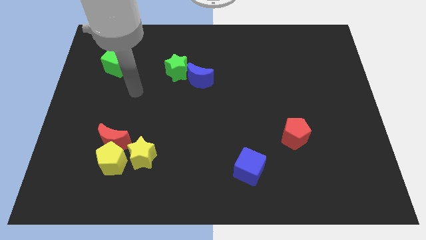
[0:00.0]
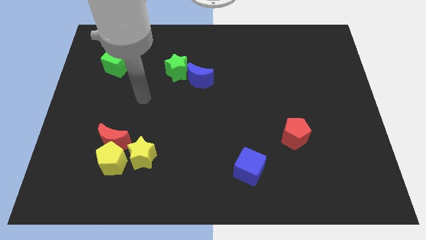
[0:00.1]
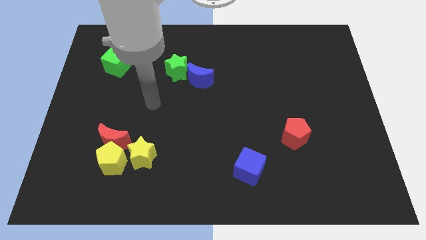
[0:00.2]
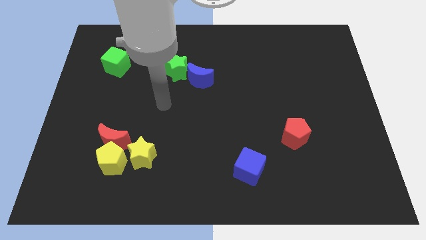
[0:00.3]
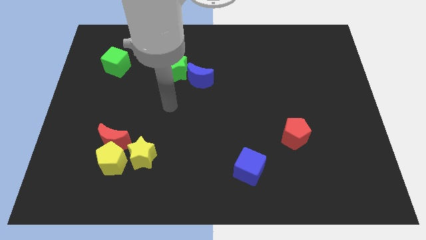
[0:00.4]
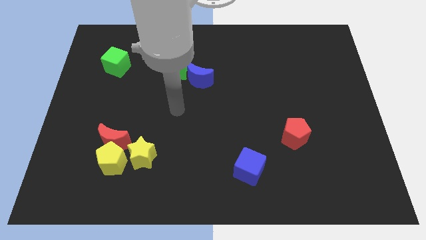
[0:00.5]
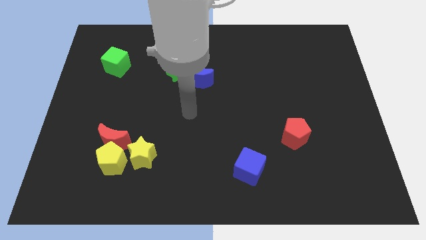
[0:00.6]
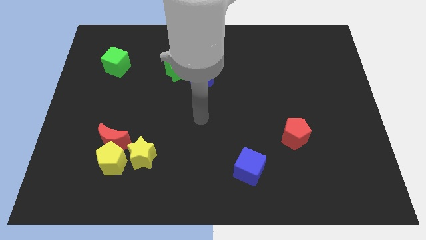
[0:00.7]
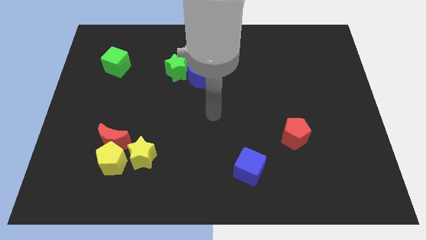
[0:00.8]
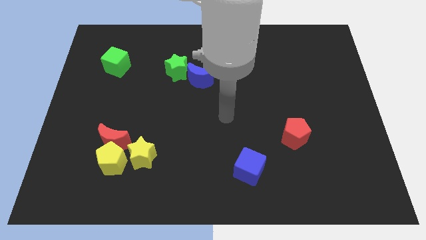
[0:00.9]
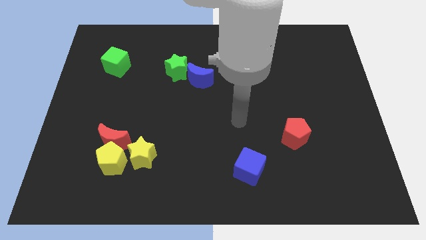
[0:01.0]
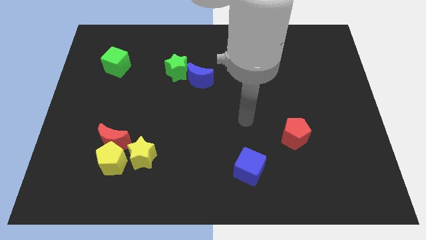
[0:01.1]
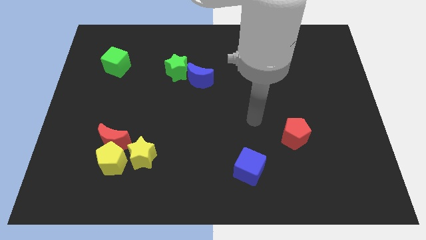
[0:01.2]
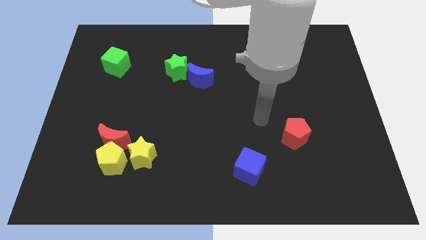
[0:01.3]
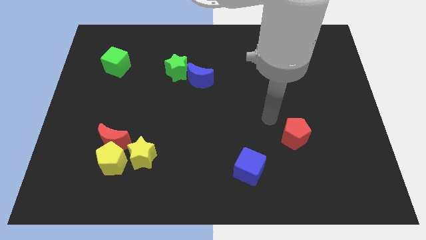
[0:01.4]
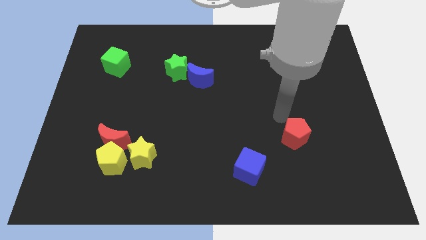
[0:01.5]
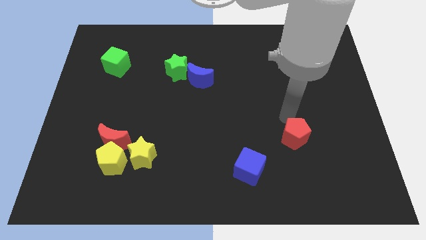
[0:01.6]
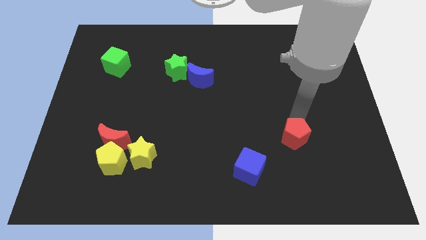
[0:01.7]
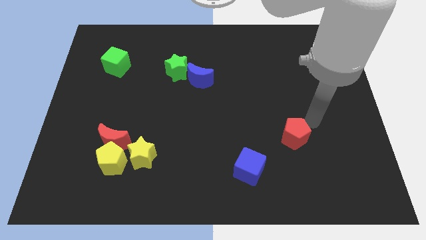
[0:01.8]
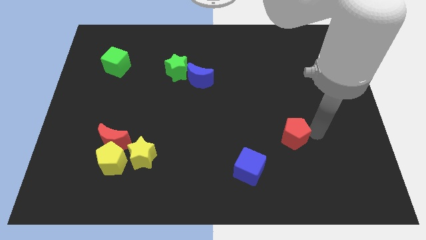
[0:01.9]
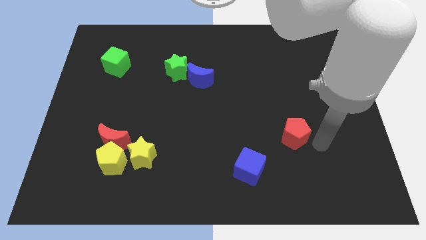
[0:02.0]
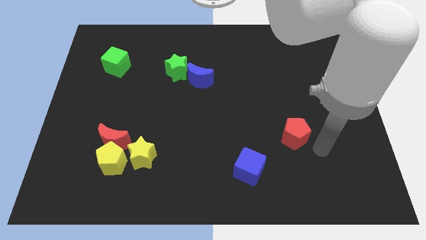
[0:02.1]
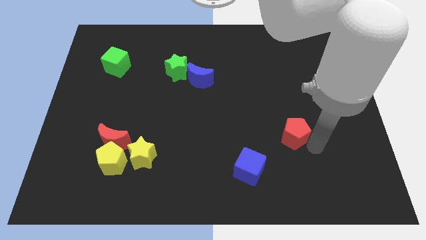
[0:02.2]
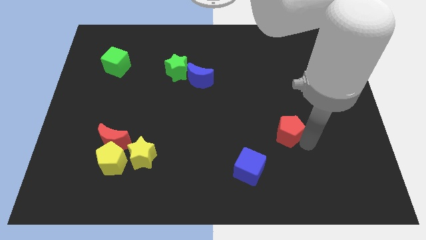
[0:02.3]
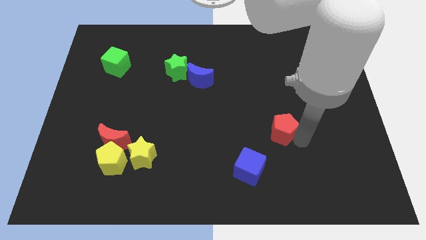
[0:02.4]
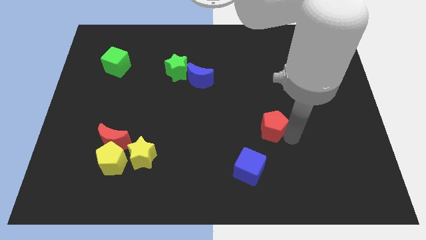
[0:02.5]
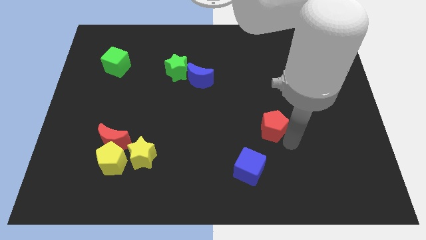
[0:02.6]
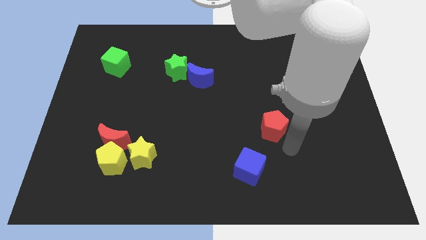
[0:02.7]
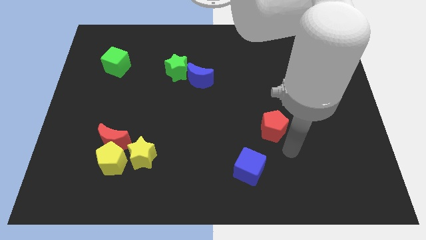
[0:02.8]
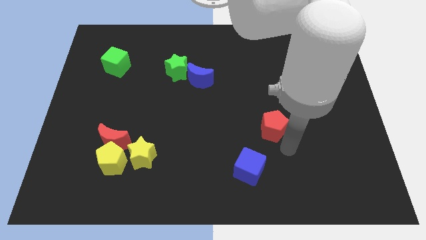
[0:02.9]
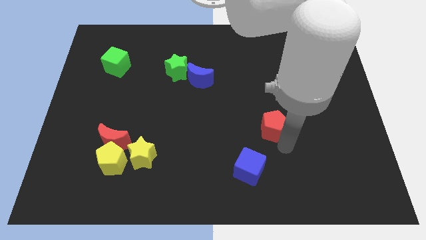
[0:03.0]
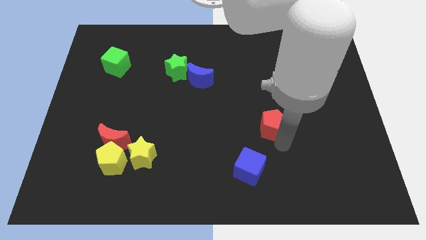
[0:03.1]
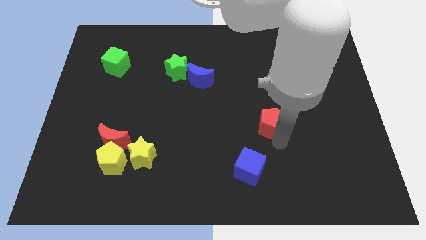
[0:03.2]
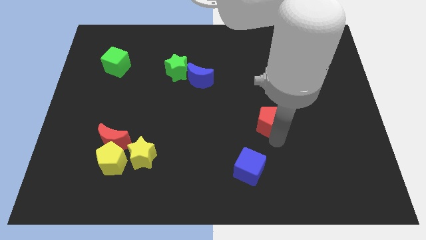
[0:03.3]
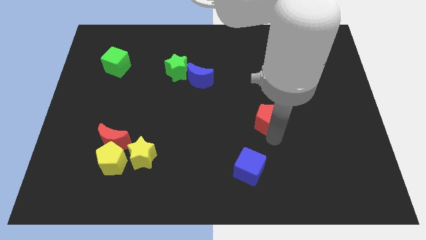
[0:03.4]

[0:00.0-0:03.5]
slightly push the red pentagon up and then to the left

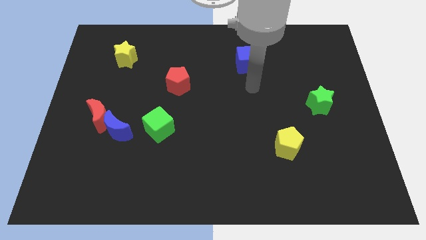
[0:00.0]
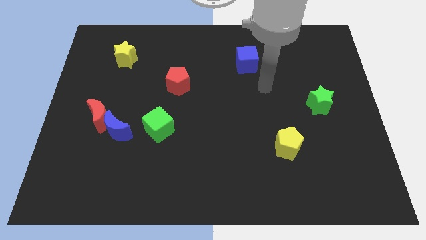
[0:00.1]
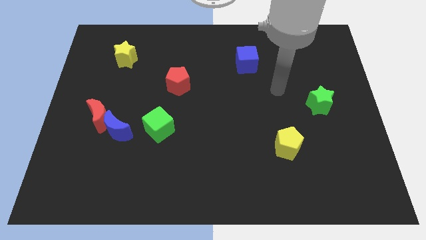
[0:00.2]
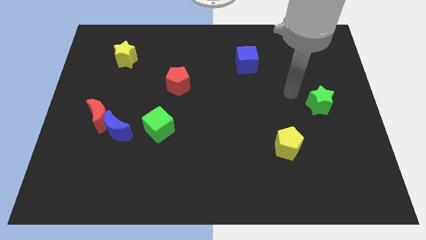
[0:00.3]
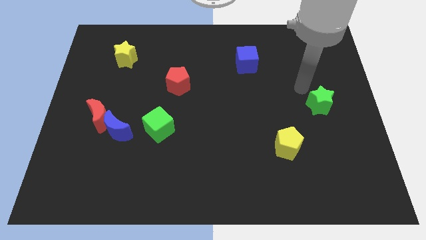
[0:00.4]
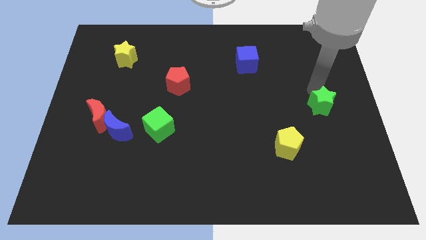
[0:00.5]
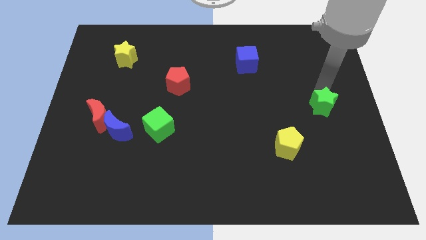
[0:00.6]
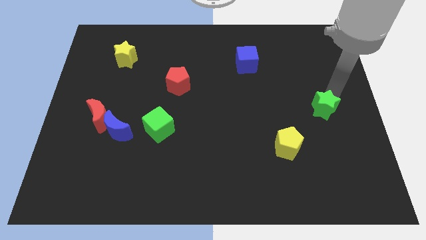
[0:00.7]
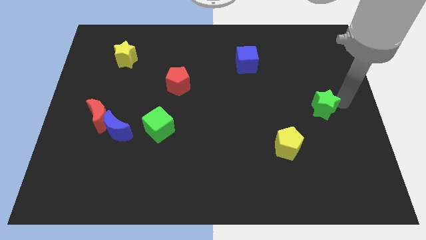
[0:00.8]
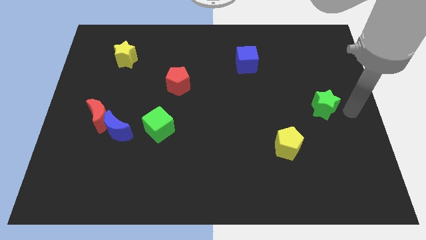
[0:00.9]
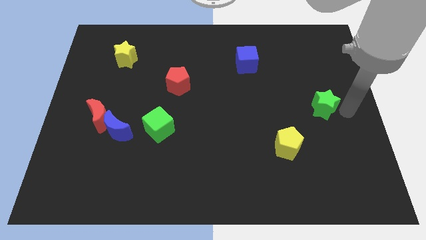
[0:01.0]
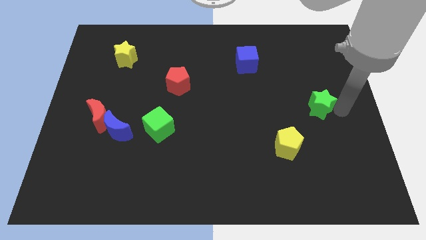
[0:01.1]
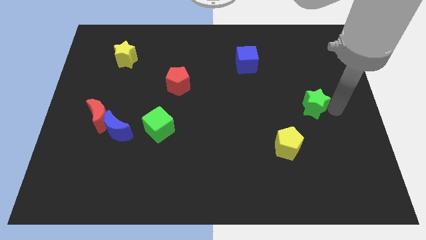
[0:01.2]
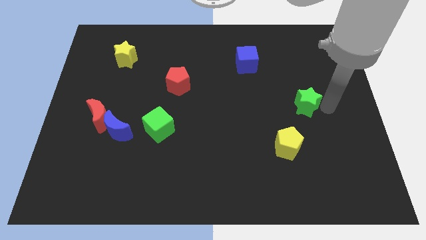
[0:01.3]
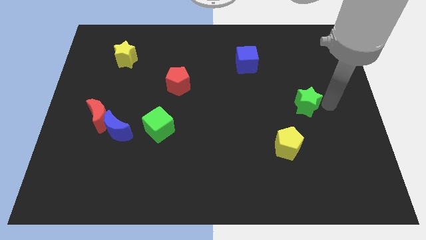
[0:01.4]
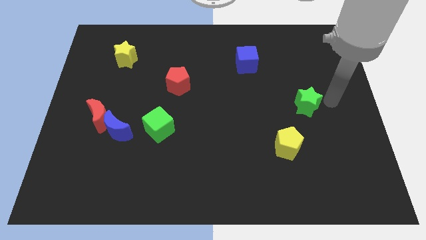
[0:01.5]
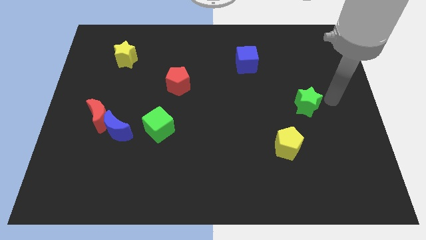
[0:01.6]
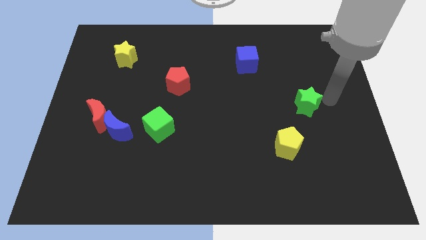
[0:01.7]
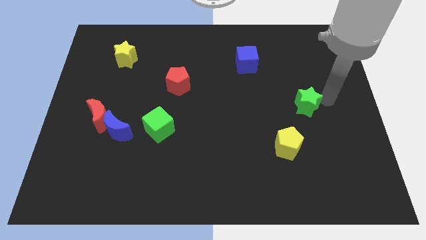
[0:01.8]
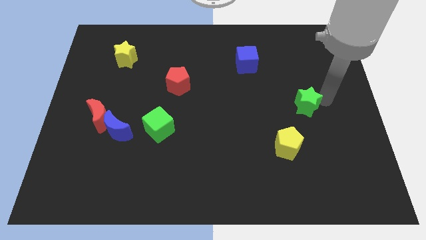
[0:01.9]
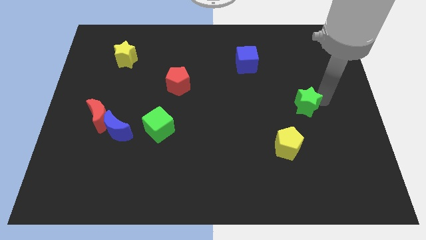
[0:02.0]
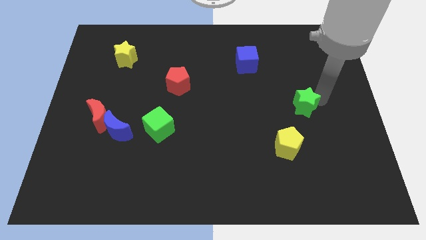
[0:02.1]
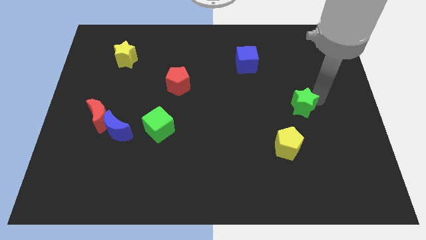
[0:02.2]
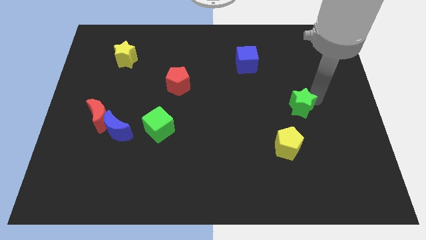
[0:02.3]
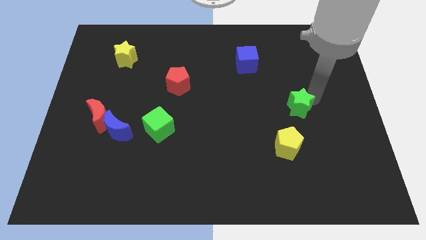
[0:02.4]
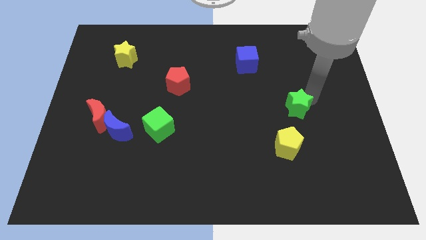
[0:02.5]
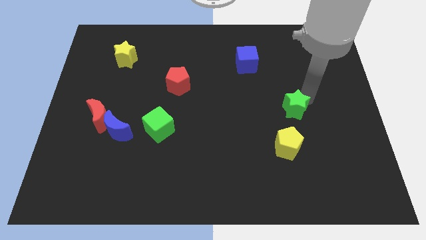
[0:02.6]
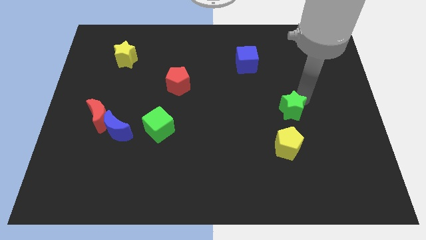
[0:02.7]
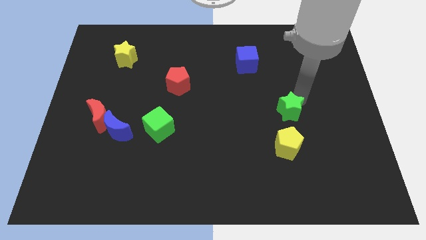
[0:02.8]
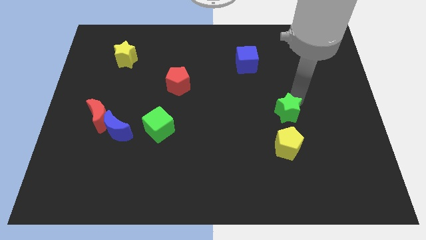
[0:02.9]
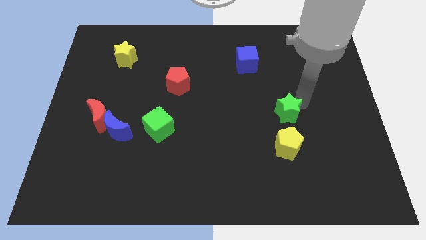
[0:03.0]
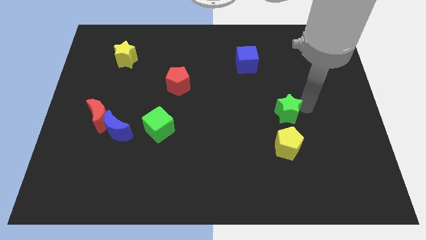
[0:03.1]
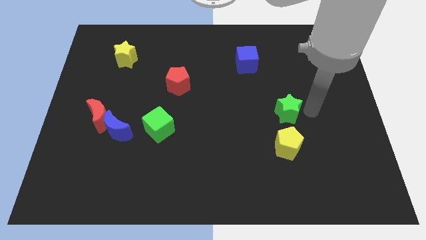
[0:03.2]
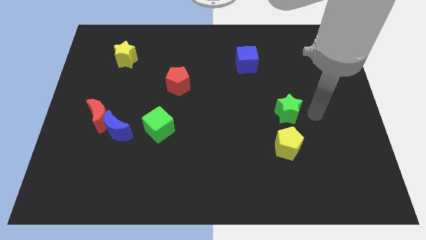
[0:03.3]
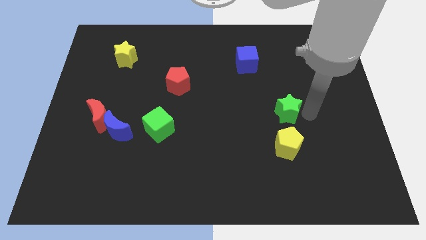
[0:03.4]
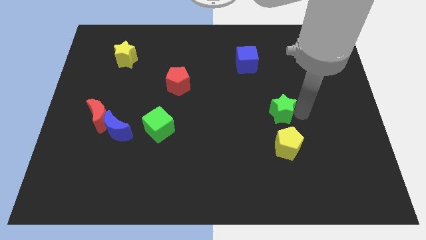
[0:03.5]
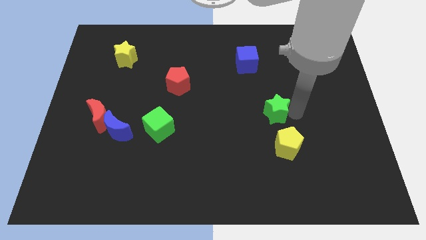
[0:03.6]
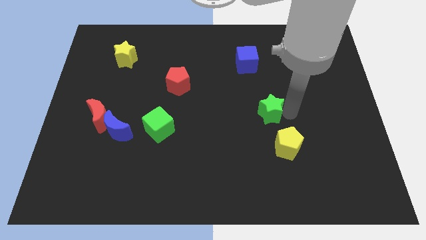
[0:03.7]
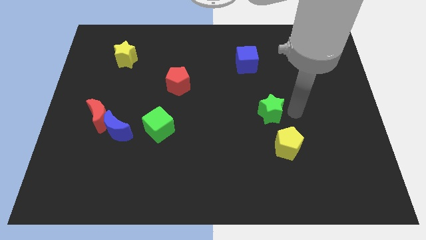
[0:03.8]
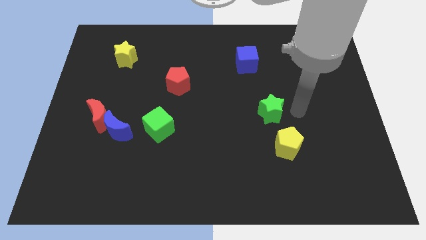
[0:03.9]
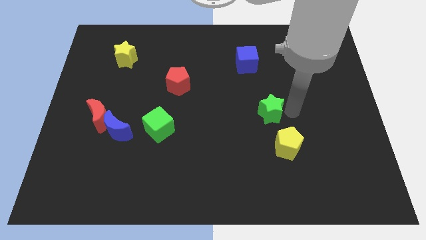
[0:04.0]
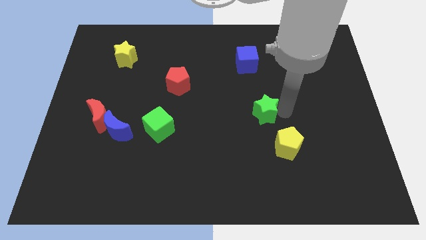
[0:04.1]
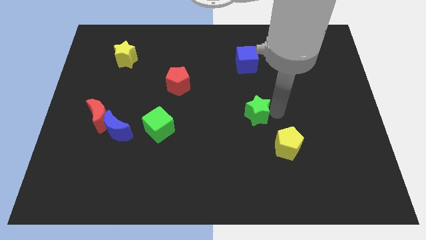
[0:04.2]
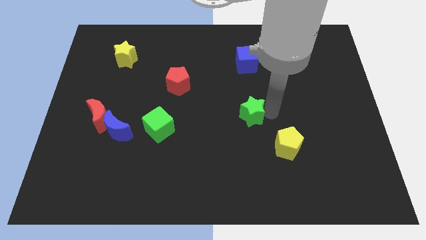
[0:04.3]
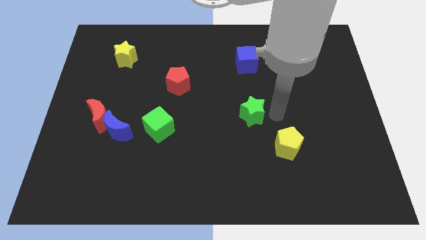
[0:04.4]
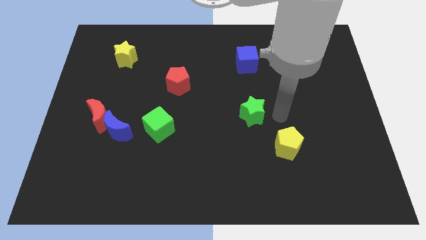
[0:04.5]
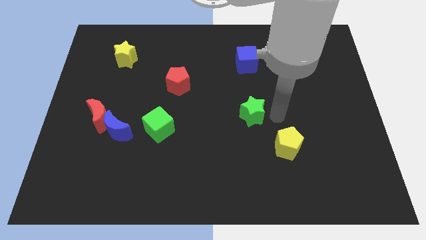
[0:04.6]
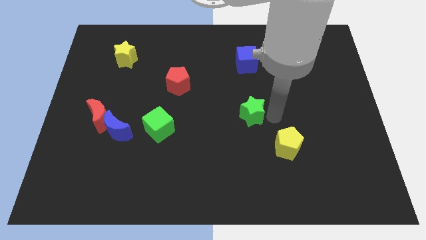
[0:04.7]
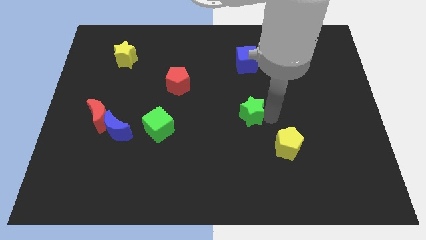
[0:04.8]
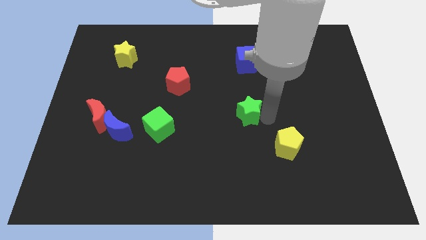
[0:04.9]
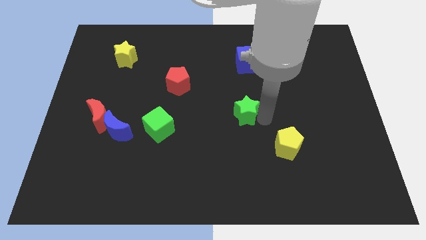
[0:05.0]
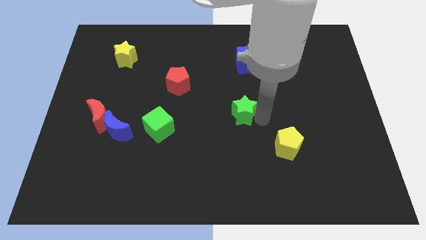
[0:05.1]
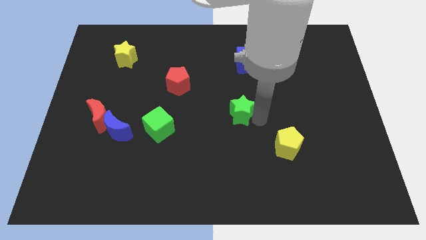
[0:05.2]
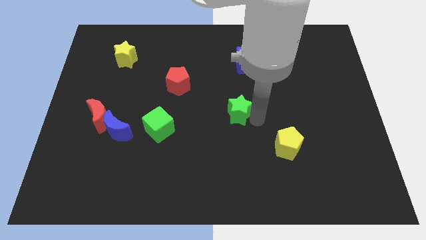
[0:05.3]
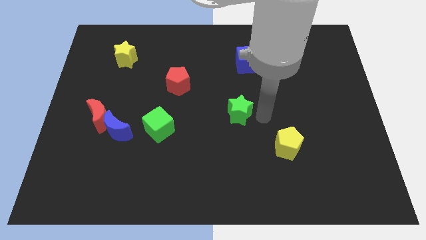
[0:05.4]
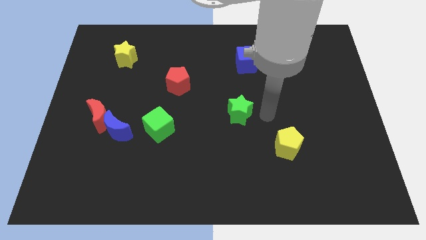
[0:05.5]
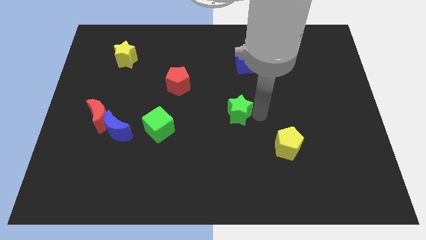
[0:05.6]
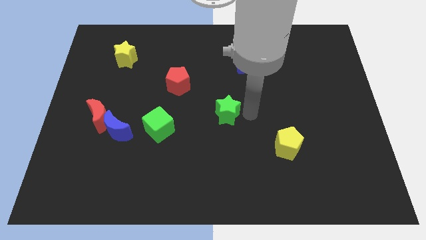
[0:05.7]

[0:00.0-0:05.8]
slide the green star left
